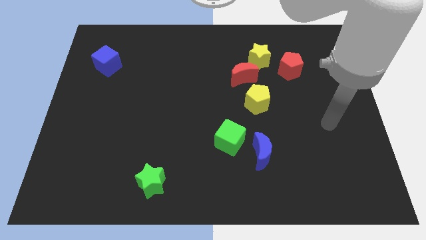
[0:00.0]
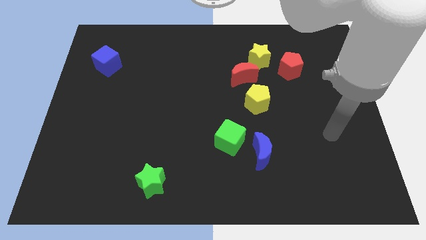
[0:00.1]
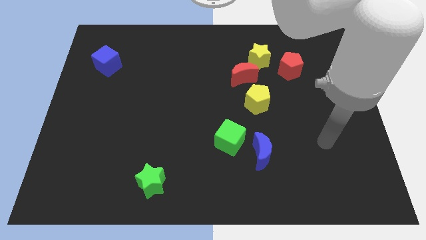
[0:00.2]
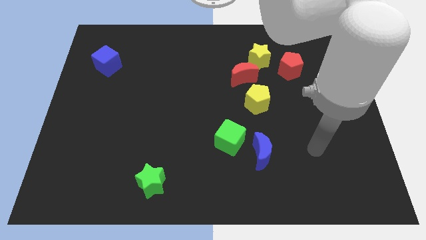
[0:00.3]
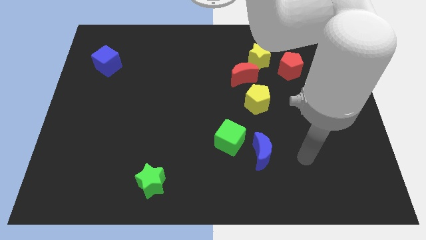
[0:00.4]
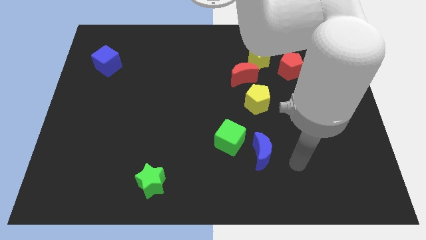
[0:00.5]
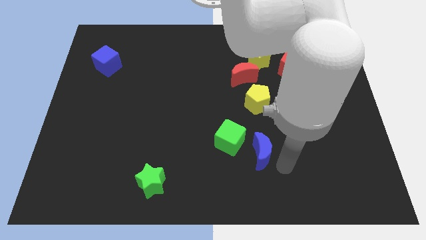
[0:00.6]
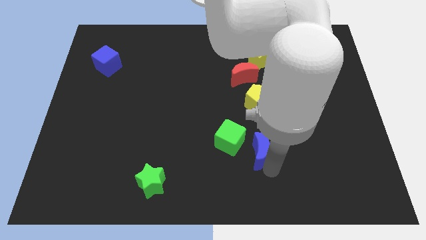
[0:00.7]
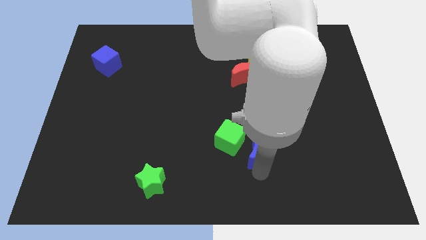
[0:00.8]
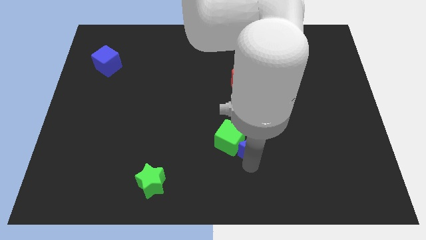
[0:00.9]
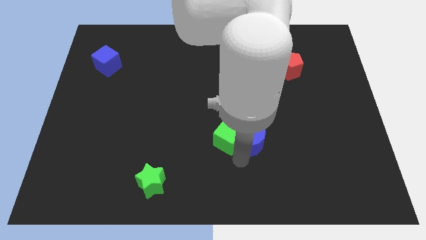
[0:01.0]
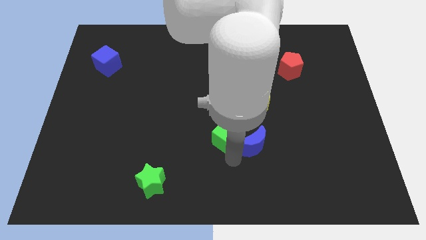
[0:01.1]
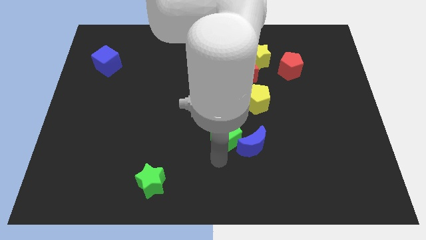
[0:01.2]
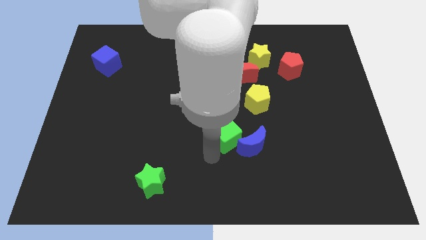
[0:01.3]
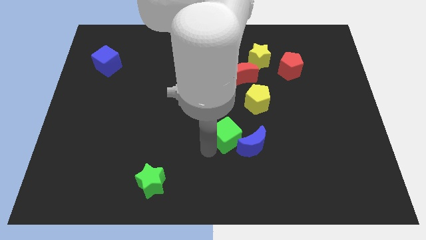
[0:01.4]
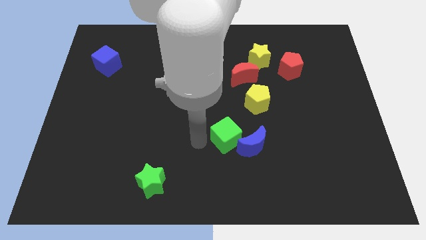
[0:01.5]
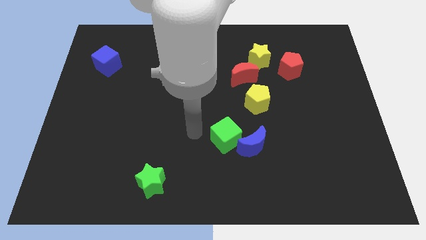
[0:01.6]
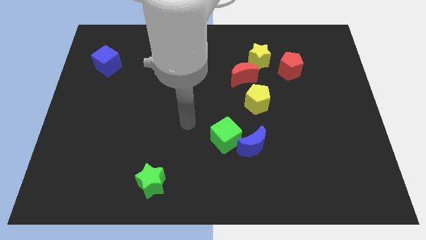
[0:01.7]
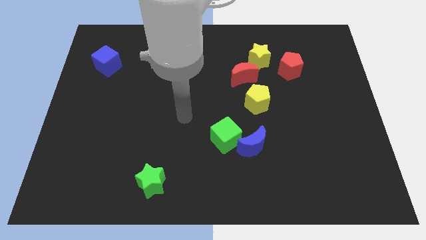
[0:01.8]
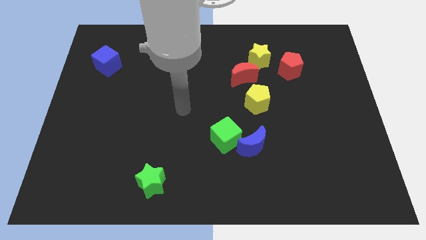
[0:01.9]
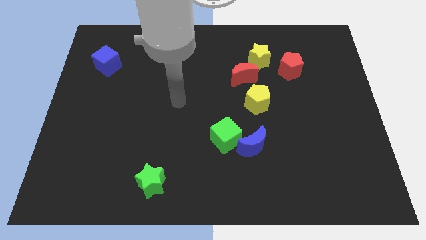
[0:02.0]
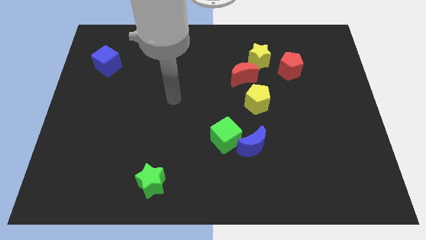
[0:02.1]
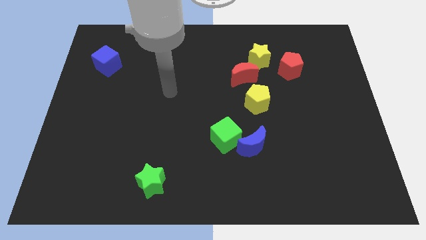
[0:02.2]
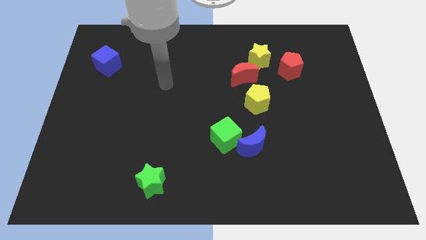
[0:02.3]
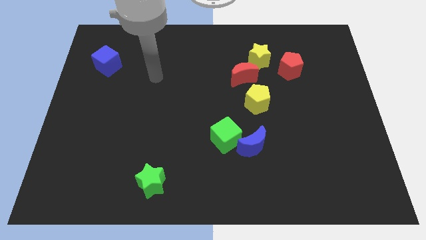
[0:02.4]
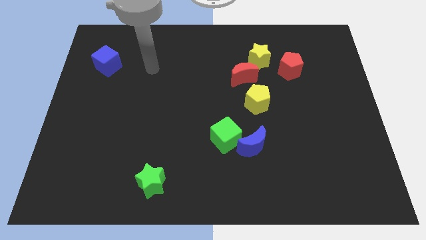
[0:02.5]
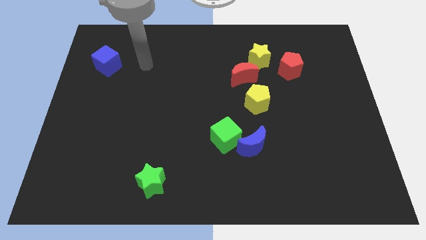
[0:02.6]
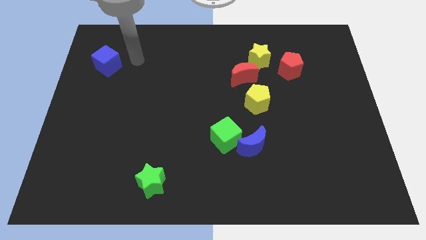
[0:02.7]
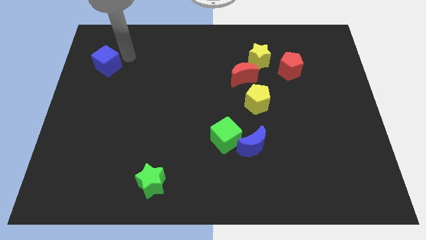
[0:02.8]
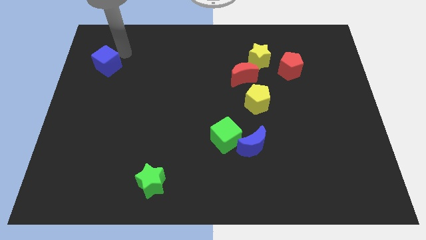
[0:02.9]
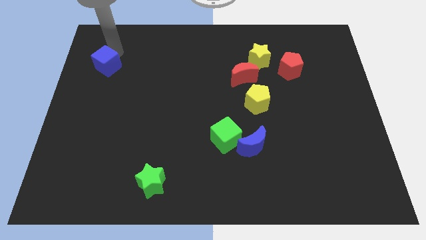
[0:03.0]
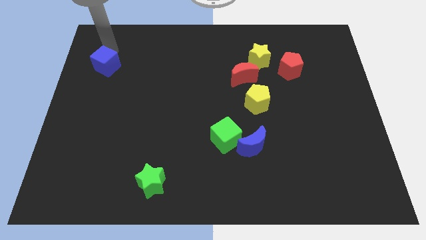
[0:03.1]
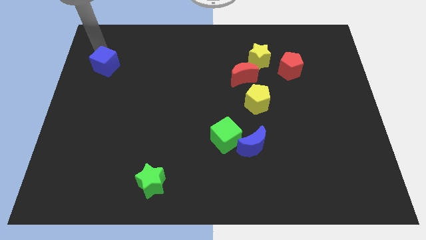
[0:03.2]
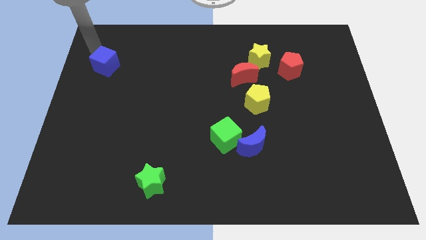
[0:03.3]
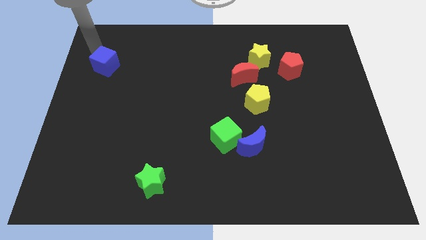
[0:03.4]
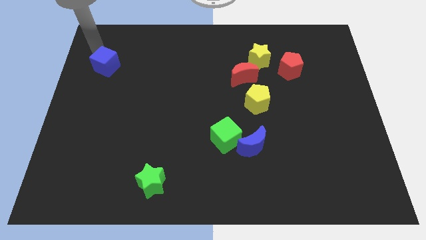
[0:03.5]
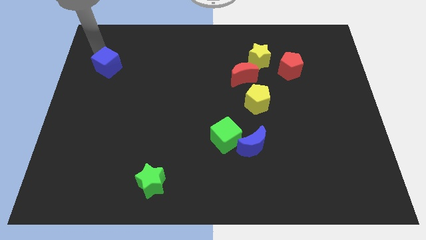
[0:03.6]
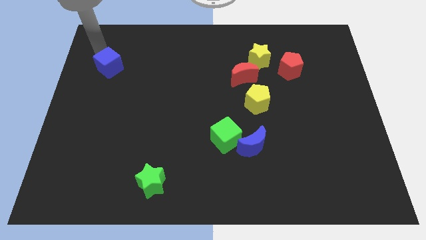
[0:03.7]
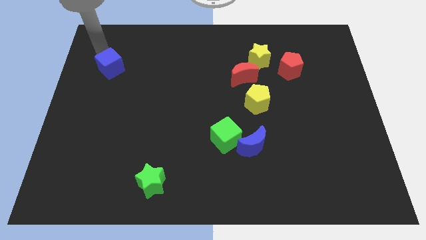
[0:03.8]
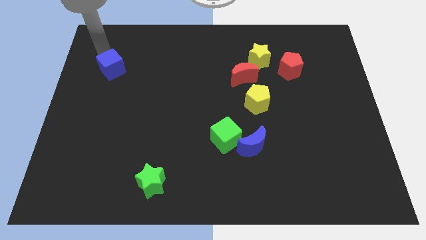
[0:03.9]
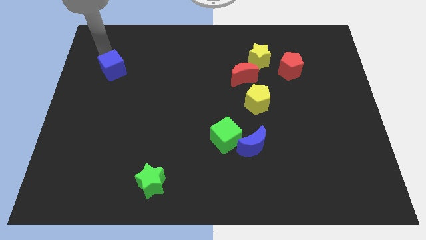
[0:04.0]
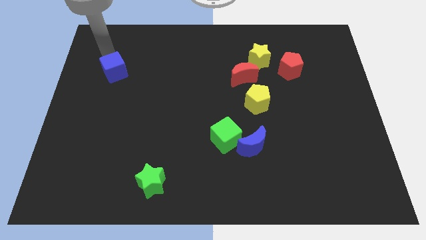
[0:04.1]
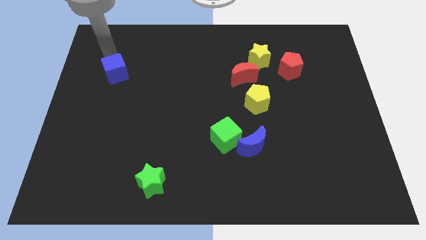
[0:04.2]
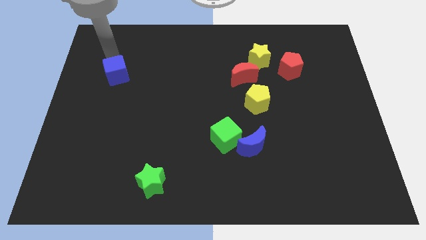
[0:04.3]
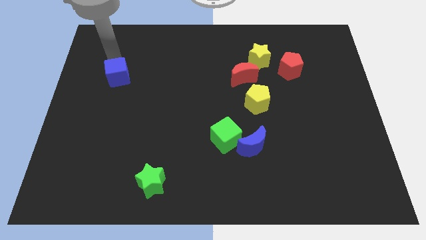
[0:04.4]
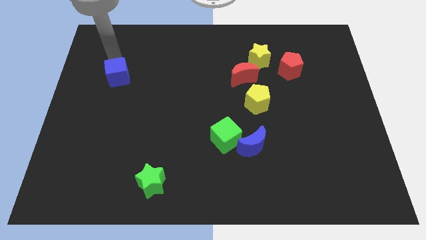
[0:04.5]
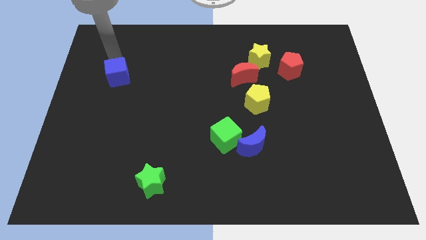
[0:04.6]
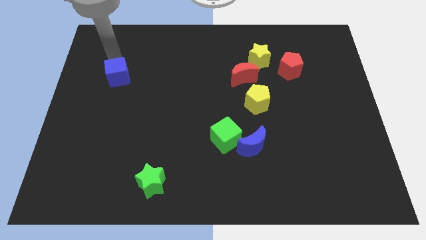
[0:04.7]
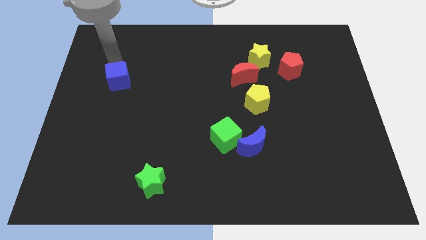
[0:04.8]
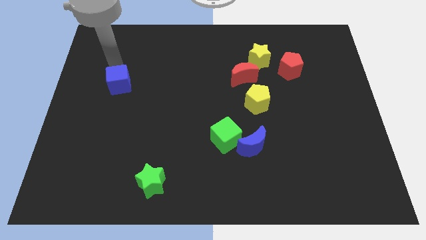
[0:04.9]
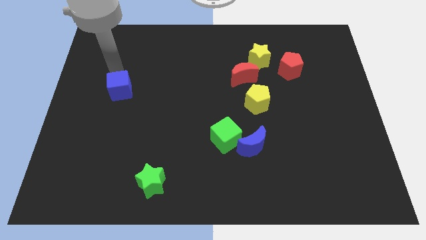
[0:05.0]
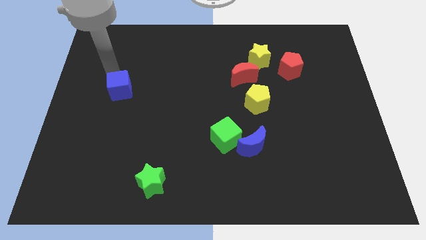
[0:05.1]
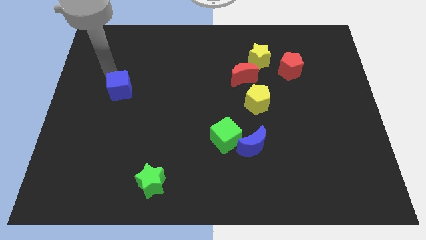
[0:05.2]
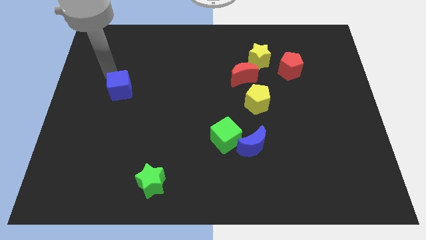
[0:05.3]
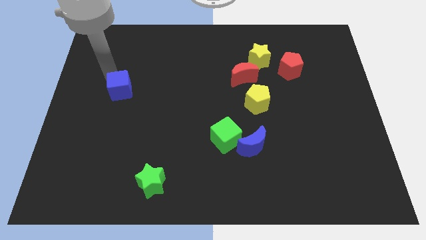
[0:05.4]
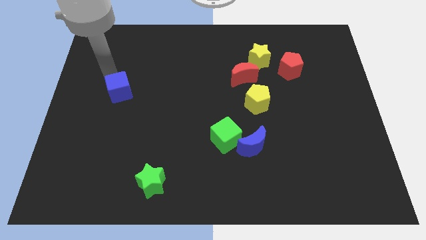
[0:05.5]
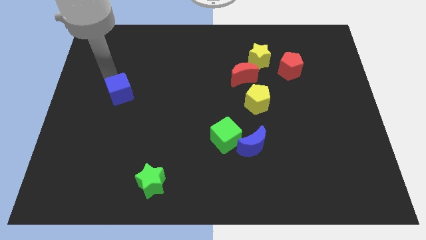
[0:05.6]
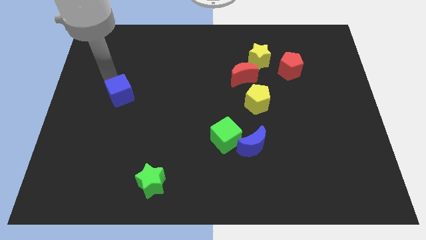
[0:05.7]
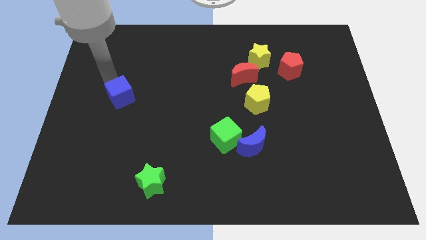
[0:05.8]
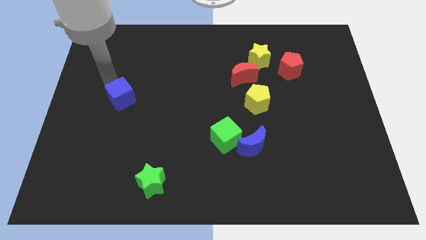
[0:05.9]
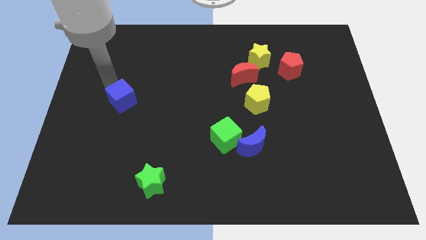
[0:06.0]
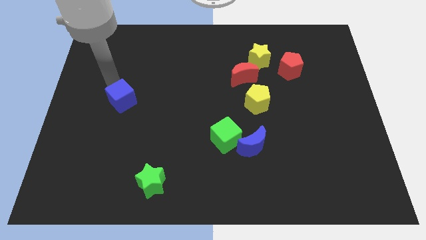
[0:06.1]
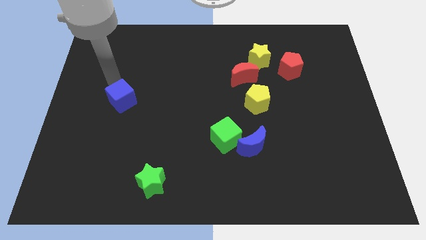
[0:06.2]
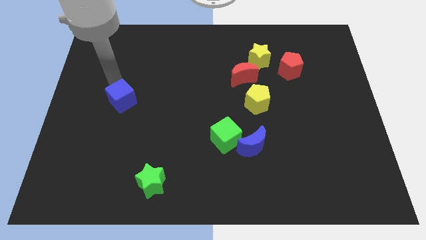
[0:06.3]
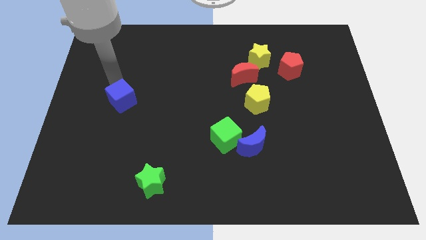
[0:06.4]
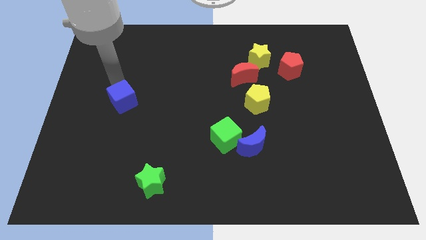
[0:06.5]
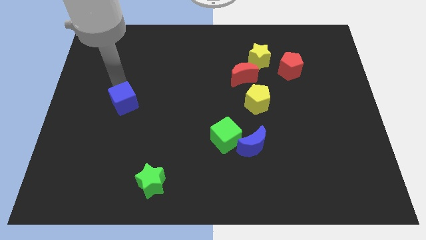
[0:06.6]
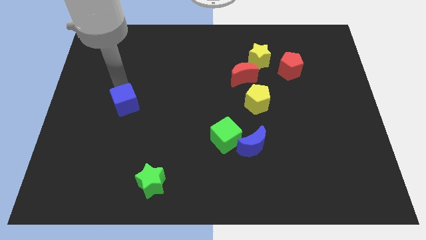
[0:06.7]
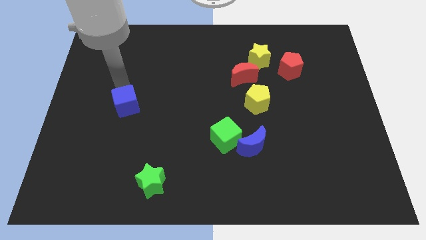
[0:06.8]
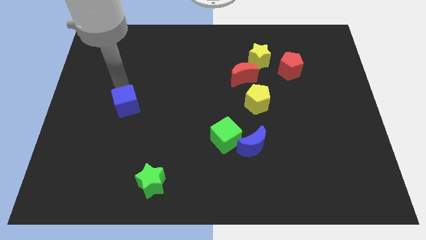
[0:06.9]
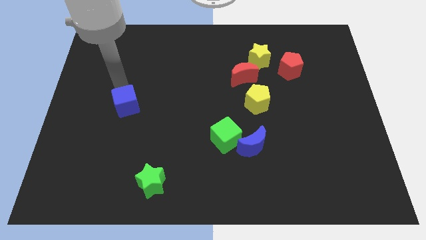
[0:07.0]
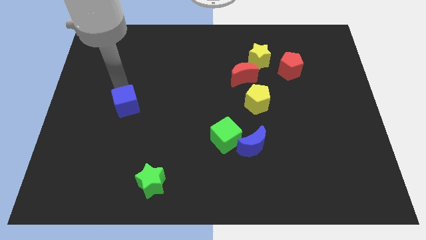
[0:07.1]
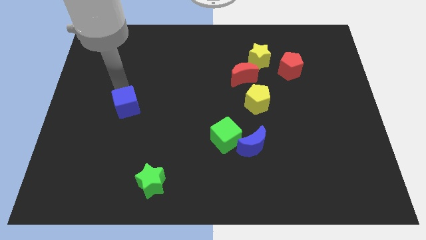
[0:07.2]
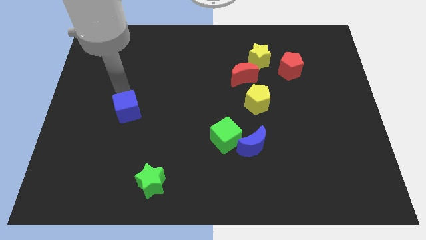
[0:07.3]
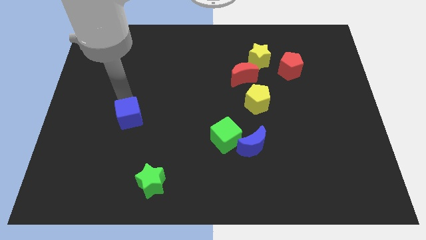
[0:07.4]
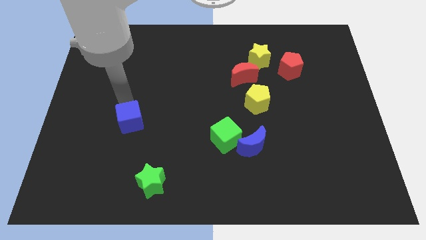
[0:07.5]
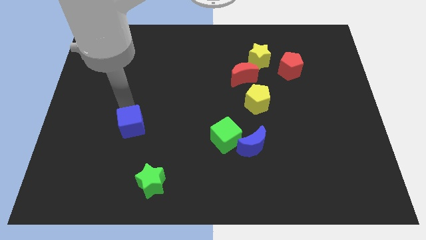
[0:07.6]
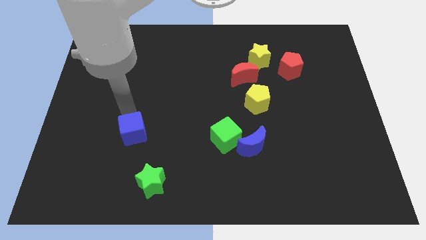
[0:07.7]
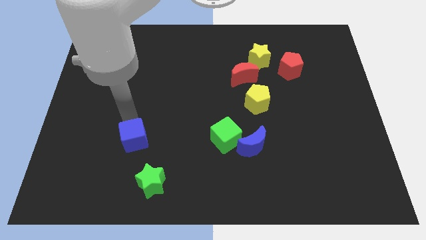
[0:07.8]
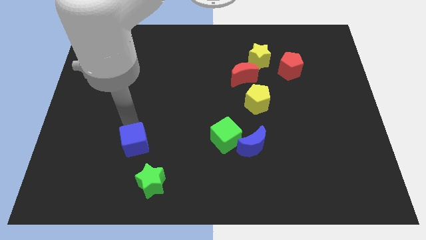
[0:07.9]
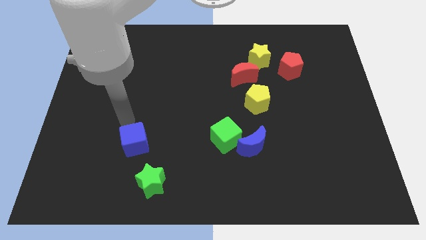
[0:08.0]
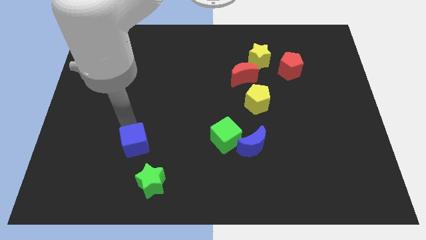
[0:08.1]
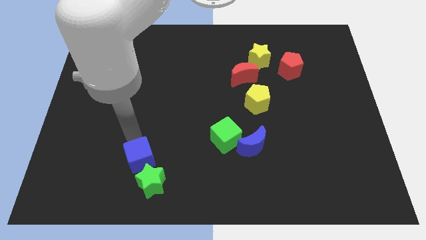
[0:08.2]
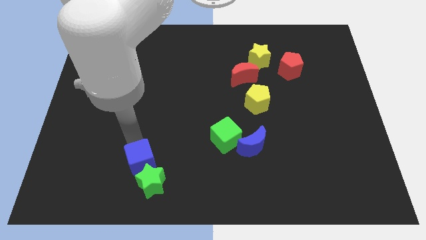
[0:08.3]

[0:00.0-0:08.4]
slide the blue cube to the green star
